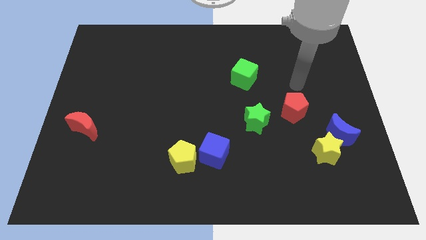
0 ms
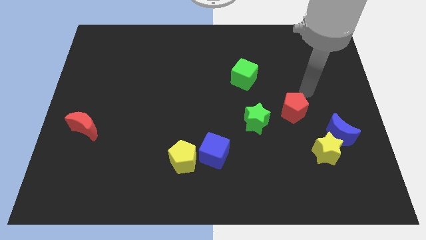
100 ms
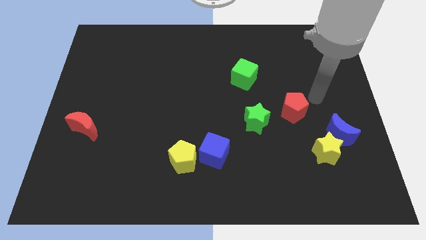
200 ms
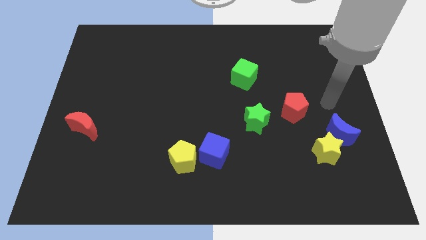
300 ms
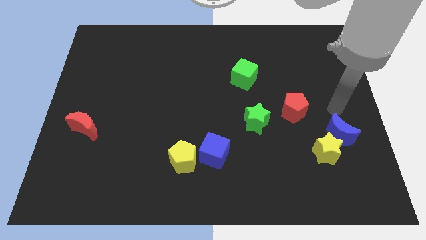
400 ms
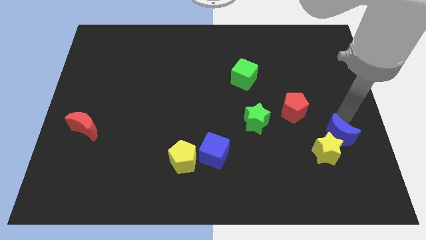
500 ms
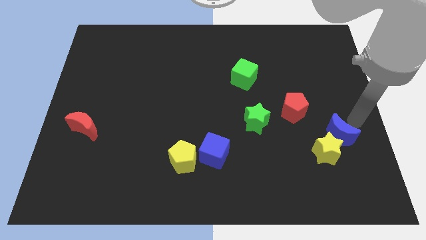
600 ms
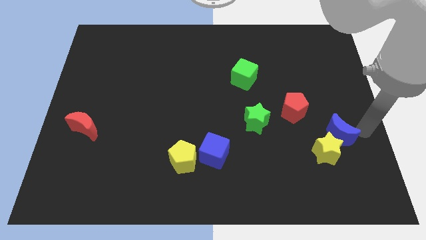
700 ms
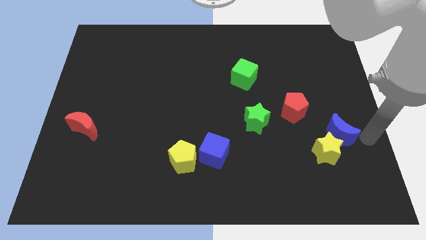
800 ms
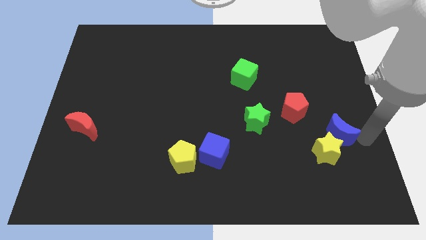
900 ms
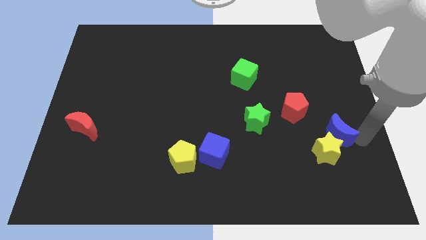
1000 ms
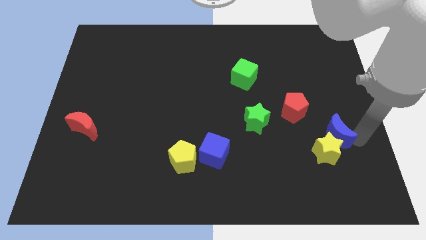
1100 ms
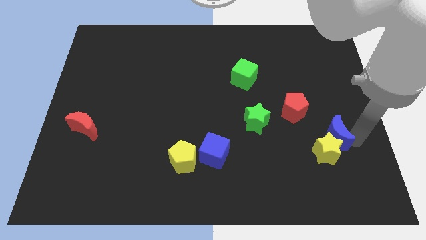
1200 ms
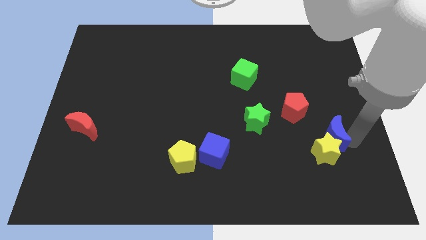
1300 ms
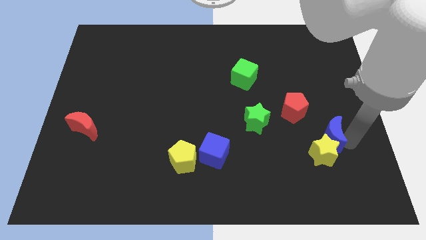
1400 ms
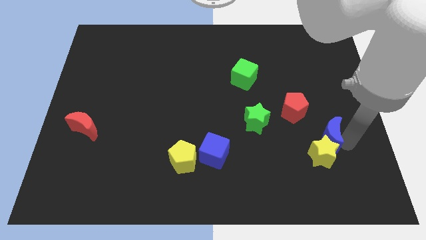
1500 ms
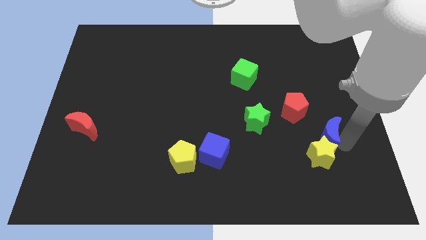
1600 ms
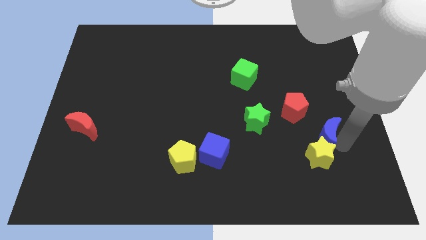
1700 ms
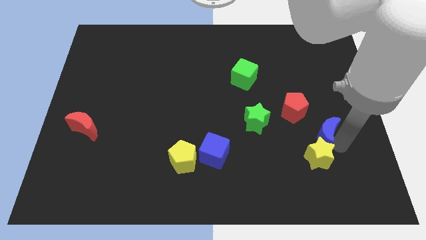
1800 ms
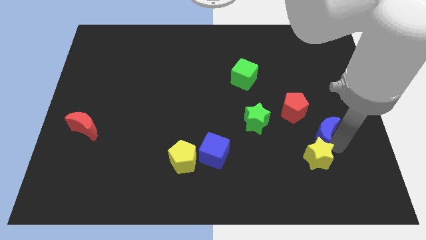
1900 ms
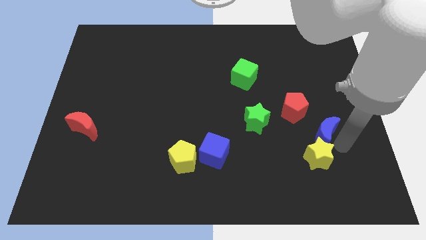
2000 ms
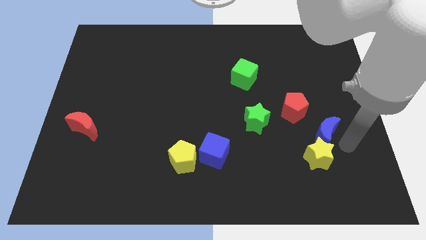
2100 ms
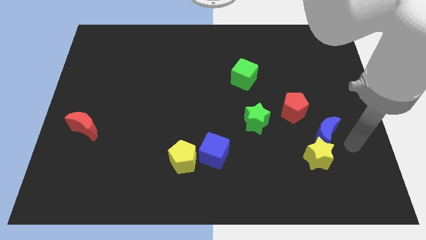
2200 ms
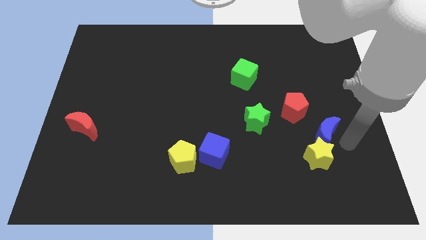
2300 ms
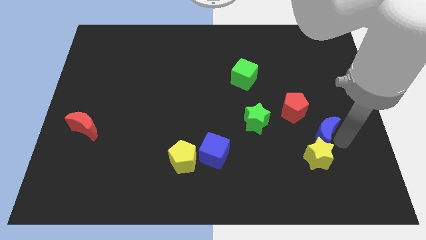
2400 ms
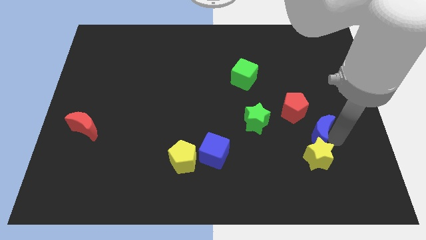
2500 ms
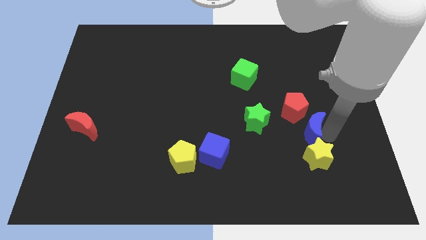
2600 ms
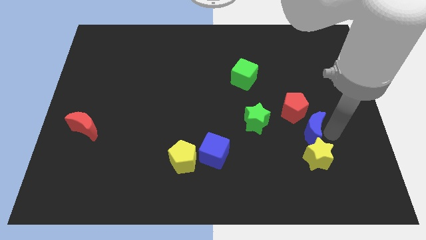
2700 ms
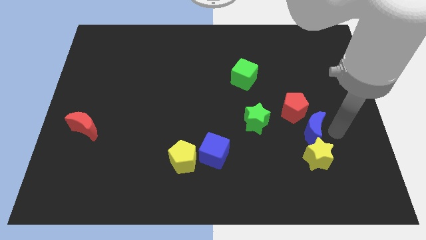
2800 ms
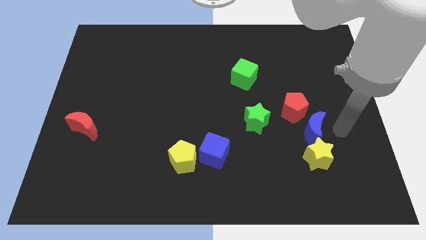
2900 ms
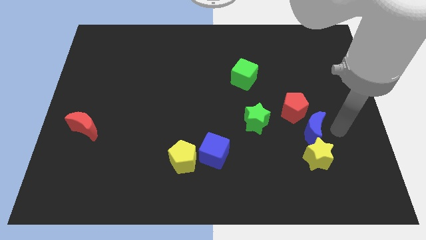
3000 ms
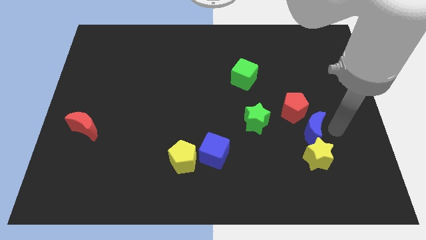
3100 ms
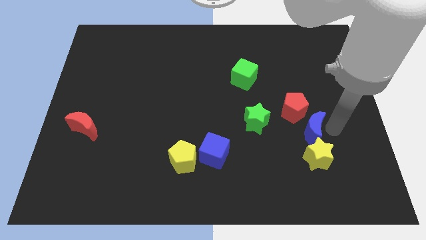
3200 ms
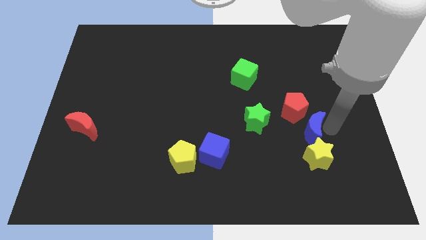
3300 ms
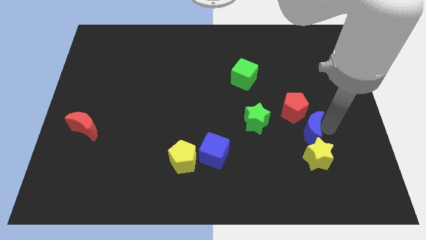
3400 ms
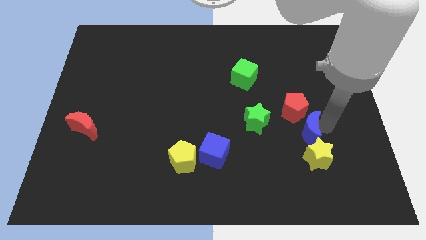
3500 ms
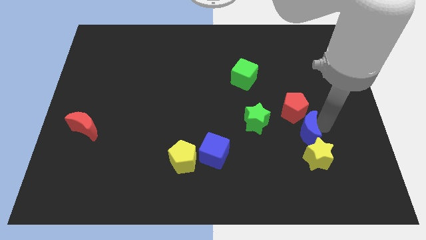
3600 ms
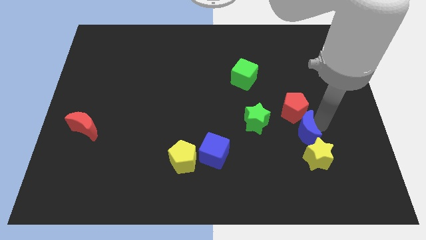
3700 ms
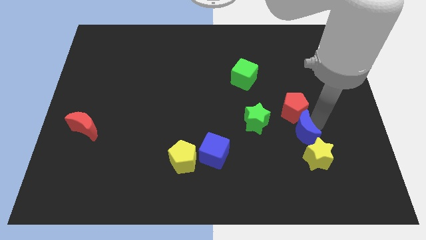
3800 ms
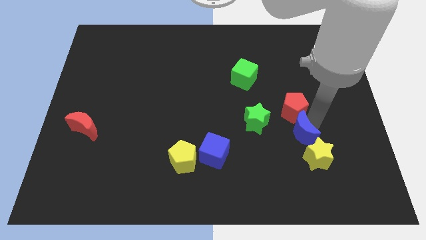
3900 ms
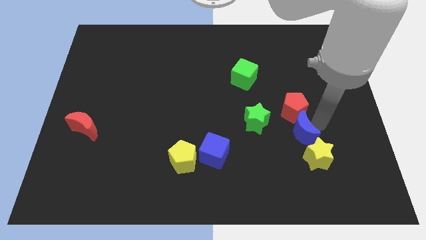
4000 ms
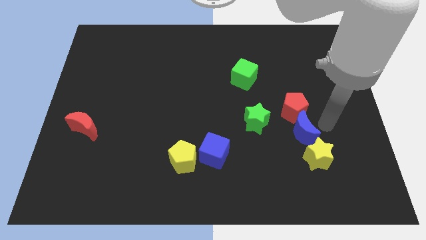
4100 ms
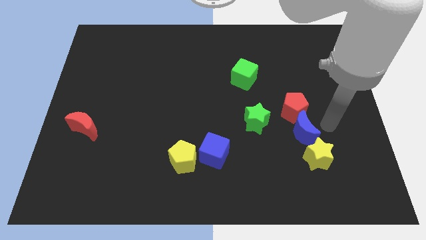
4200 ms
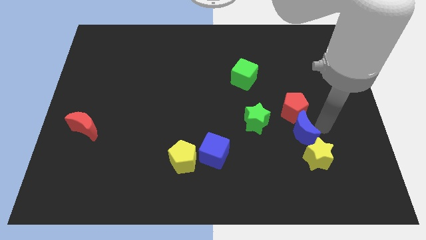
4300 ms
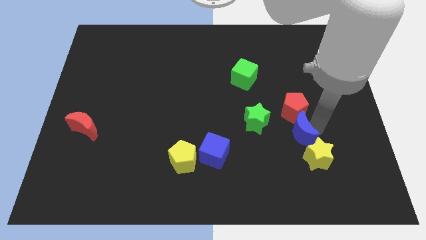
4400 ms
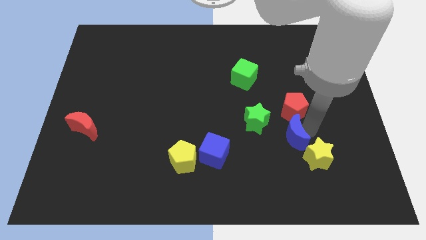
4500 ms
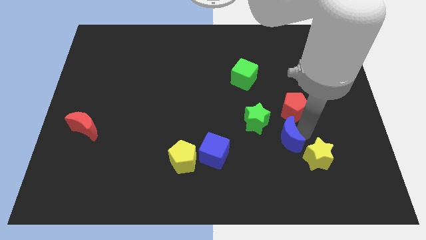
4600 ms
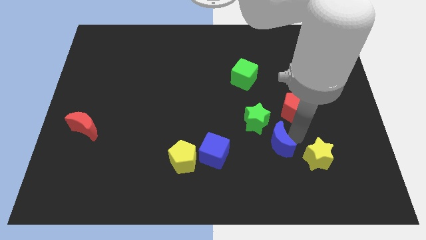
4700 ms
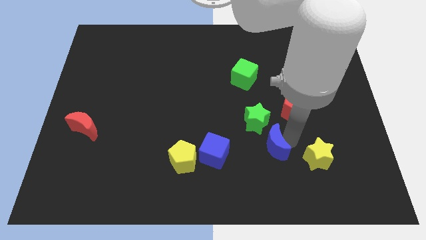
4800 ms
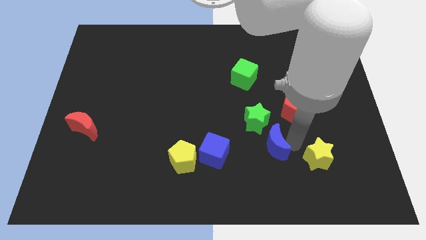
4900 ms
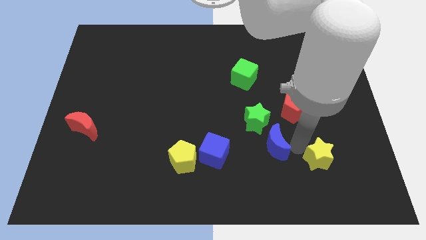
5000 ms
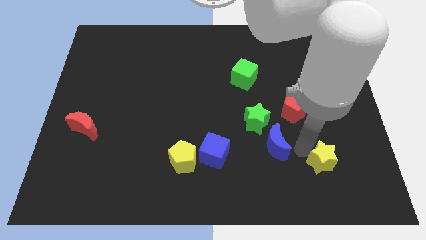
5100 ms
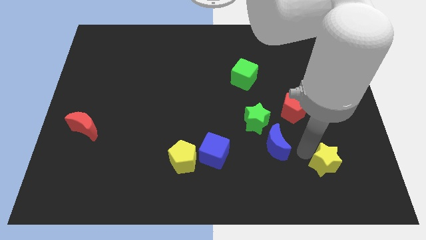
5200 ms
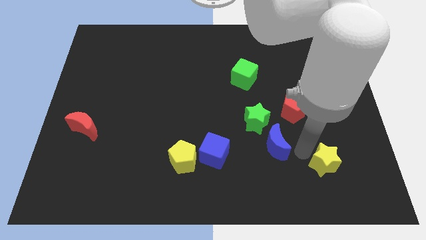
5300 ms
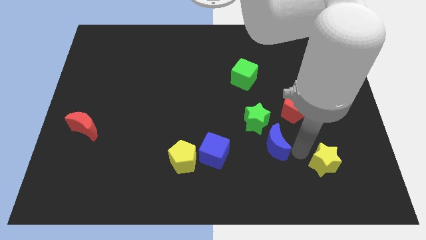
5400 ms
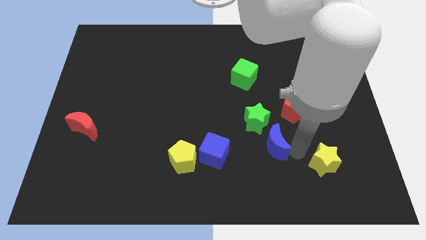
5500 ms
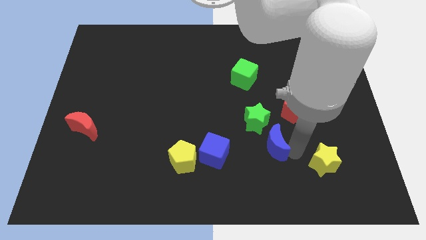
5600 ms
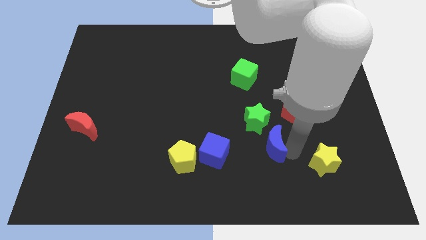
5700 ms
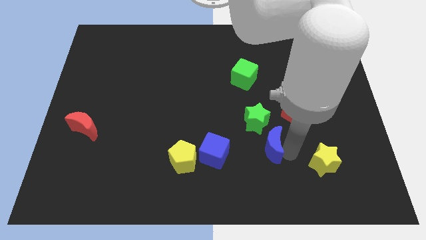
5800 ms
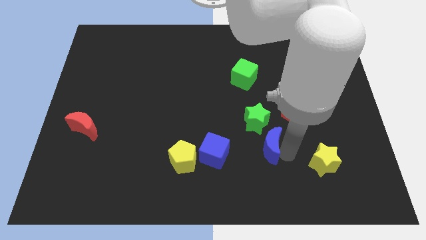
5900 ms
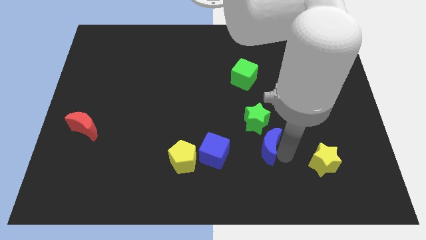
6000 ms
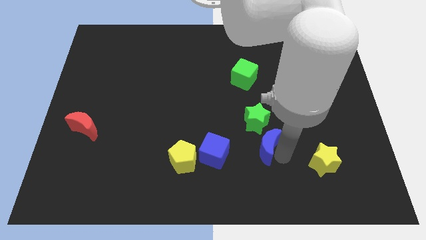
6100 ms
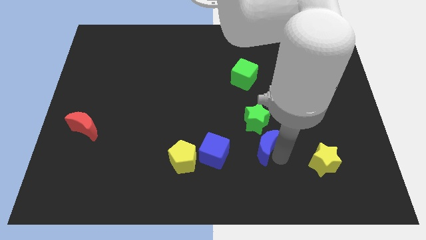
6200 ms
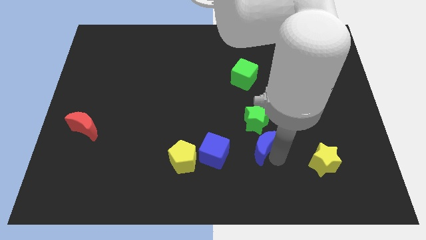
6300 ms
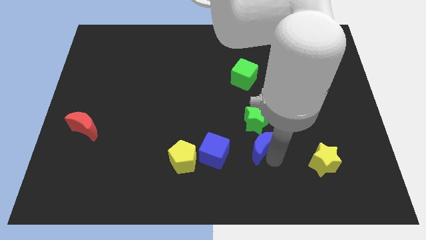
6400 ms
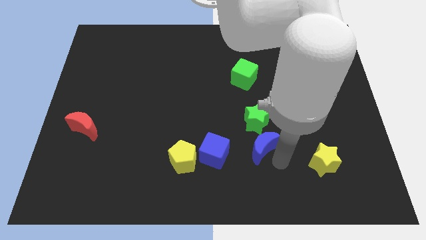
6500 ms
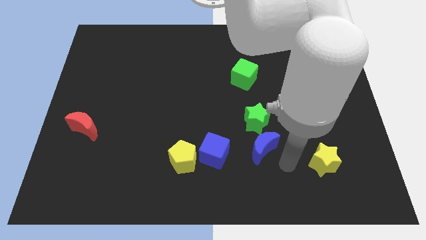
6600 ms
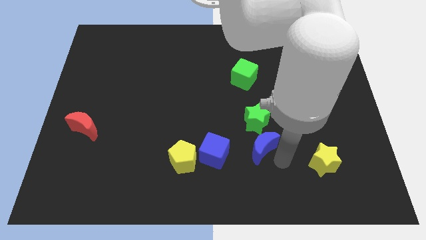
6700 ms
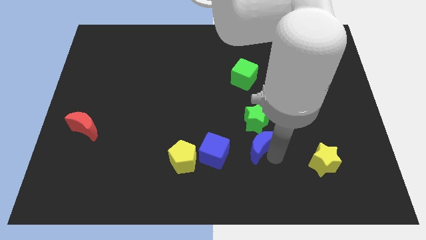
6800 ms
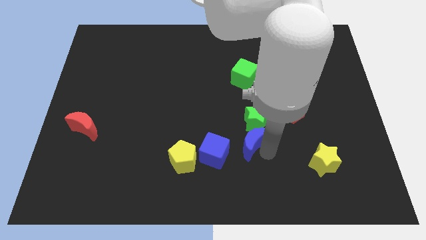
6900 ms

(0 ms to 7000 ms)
move the blue moon diagonally up and to the right of the blue cube

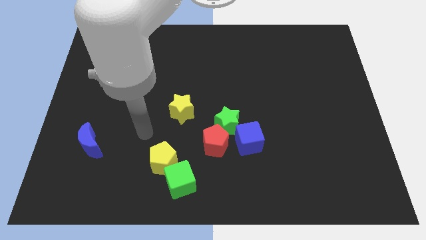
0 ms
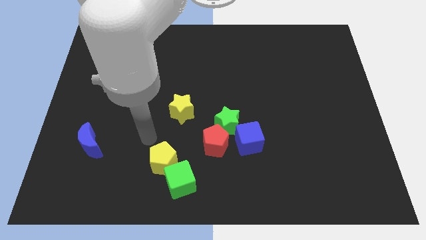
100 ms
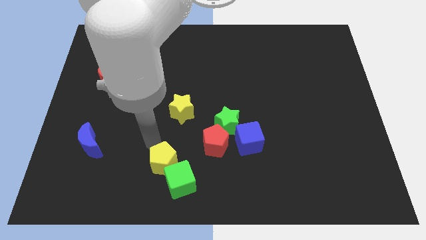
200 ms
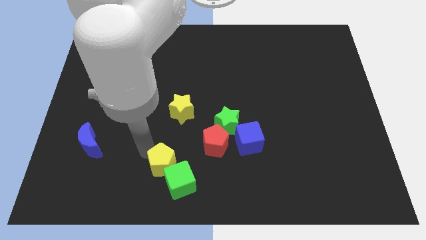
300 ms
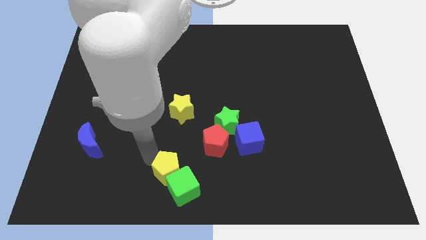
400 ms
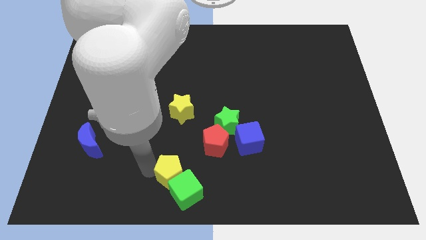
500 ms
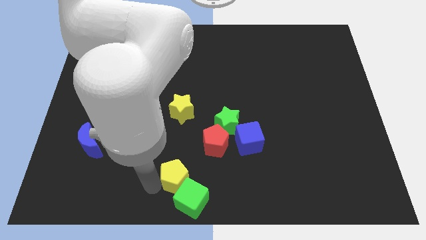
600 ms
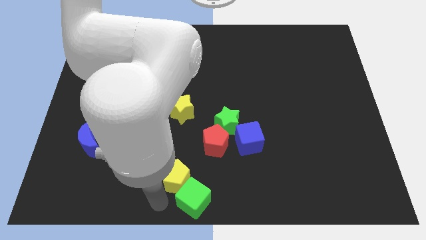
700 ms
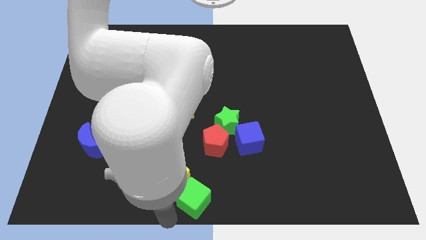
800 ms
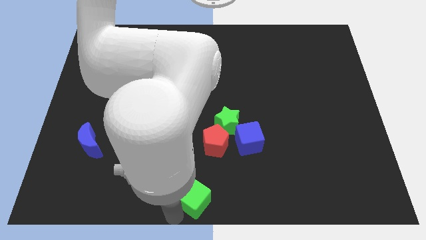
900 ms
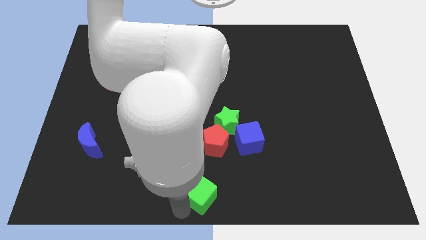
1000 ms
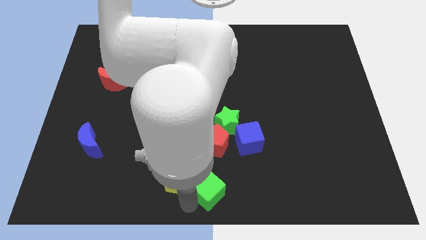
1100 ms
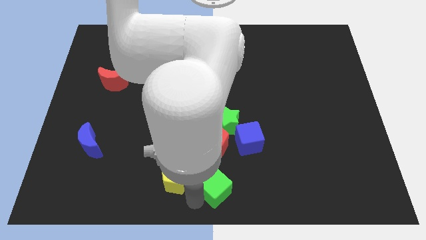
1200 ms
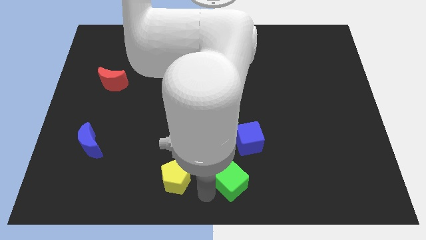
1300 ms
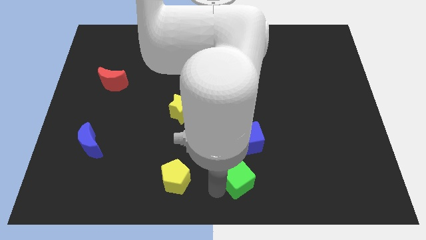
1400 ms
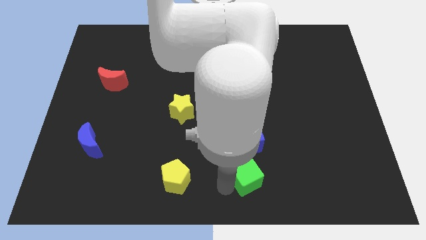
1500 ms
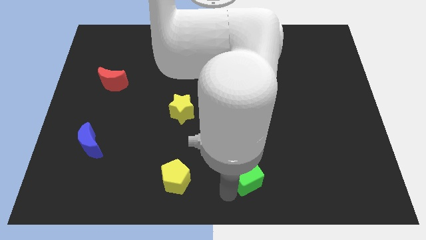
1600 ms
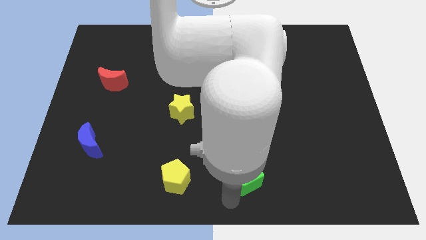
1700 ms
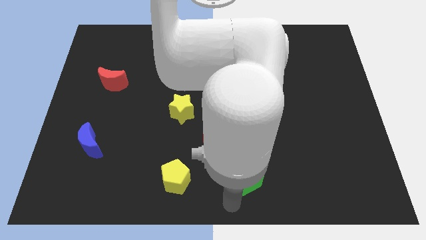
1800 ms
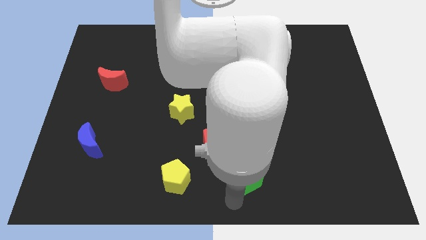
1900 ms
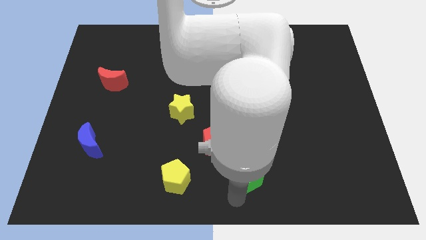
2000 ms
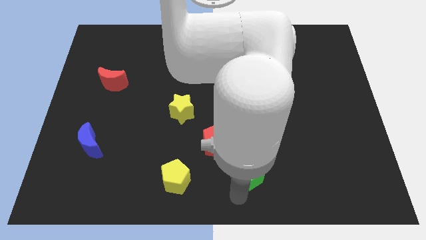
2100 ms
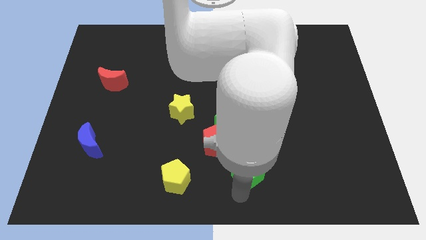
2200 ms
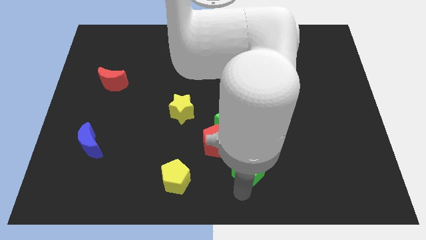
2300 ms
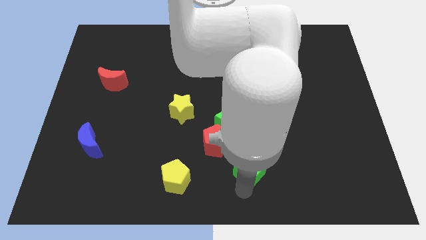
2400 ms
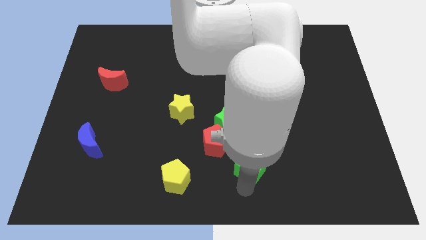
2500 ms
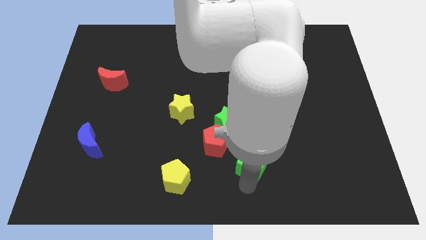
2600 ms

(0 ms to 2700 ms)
move the green cube to the bottom right side of the green star
